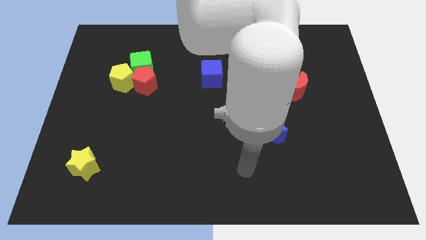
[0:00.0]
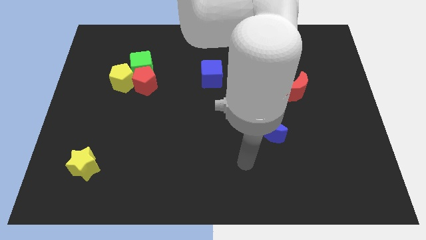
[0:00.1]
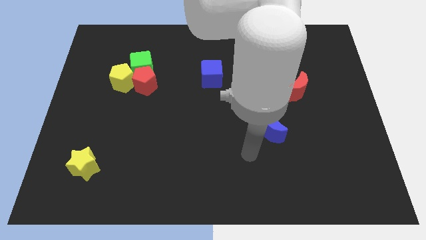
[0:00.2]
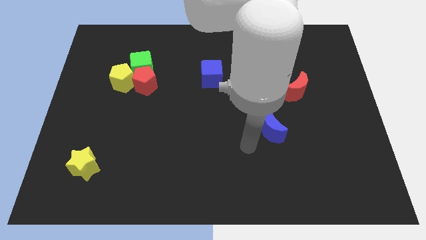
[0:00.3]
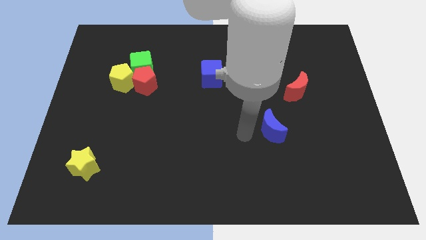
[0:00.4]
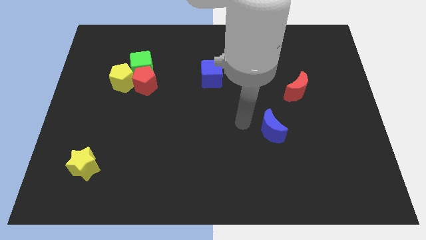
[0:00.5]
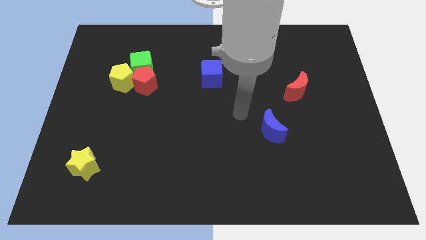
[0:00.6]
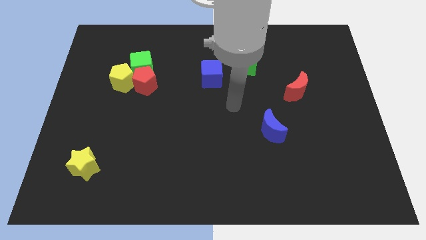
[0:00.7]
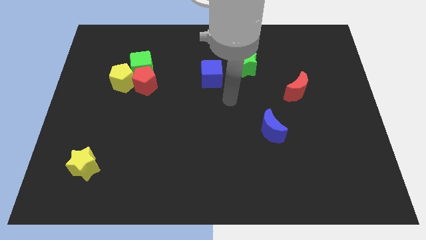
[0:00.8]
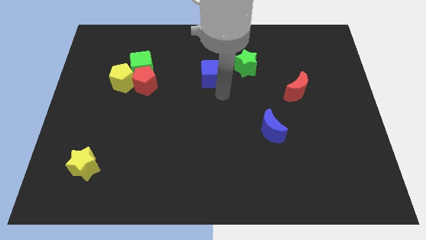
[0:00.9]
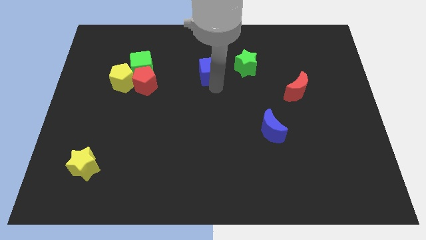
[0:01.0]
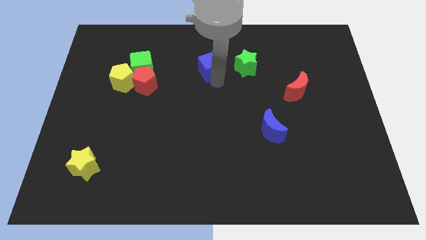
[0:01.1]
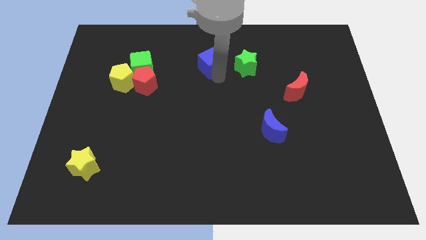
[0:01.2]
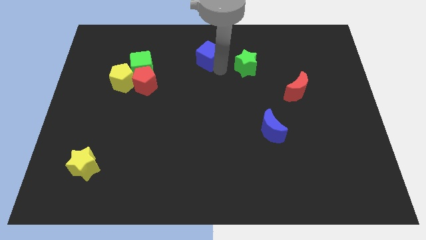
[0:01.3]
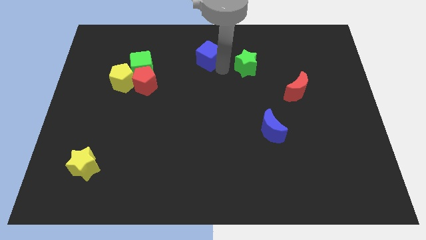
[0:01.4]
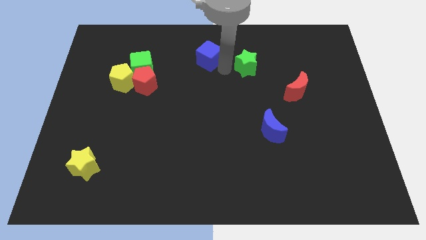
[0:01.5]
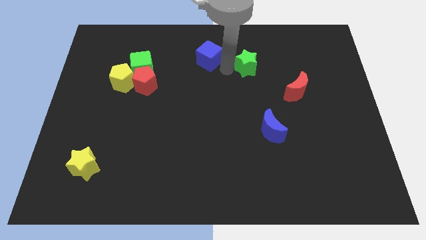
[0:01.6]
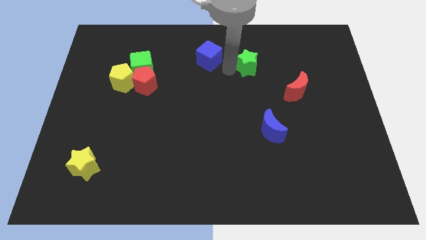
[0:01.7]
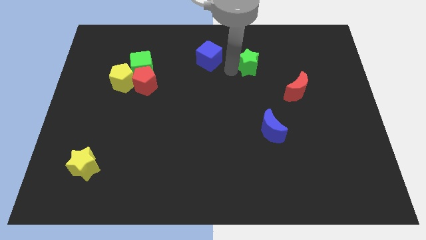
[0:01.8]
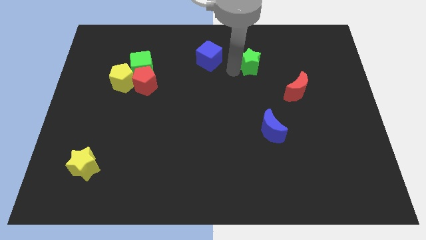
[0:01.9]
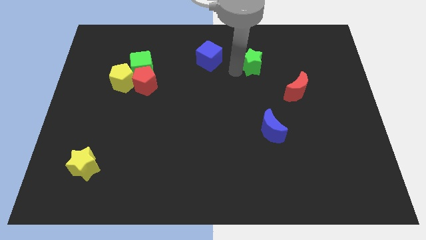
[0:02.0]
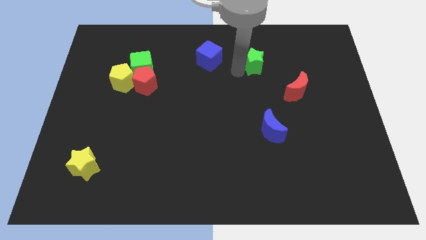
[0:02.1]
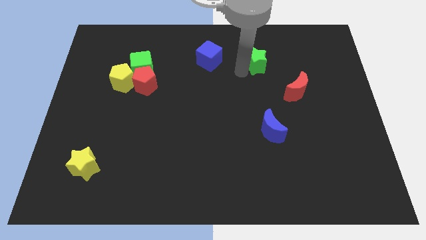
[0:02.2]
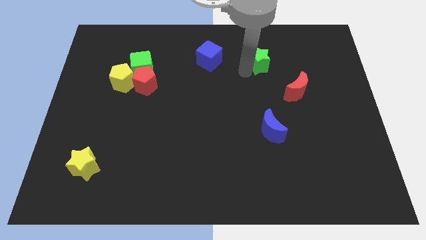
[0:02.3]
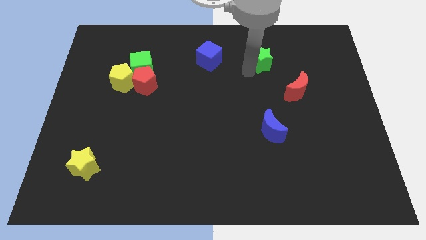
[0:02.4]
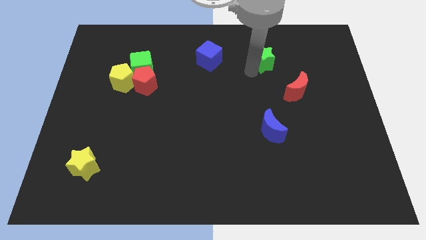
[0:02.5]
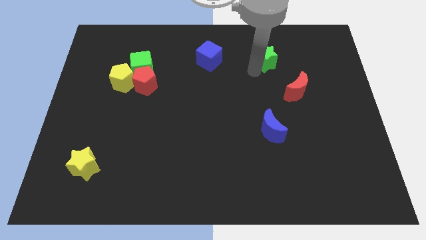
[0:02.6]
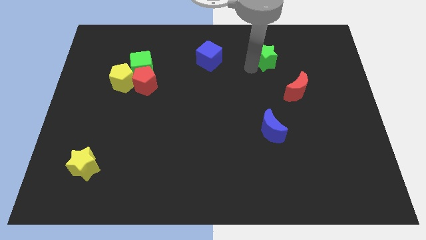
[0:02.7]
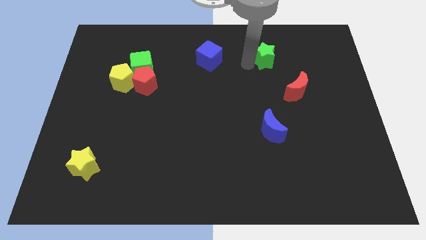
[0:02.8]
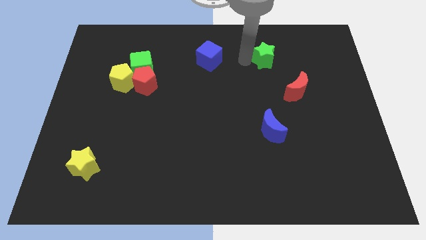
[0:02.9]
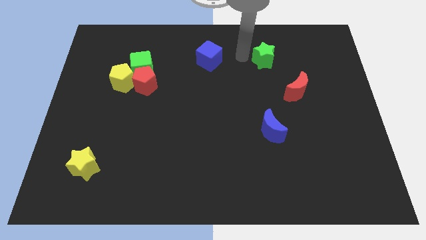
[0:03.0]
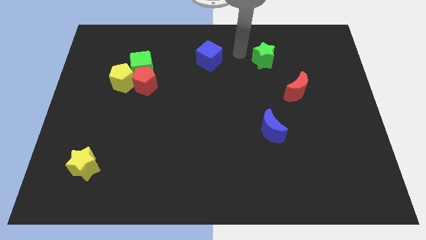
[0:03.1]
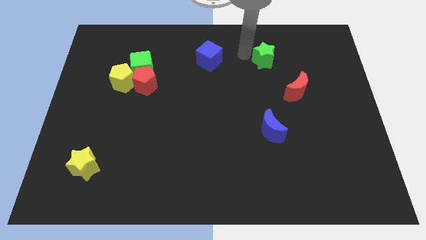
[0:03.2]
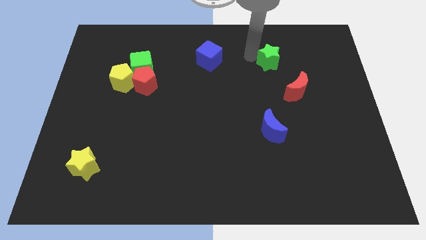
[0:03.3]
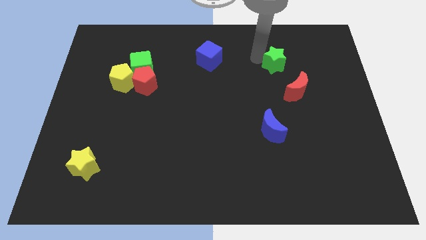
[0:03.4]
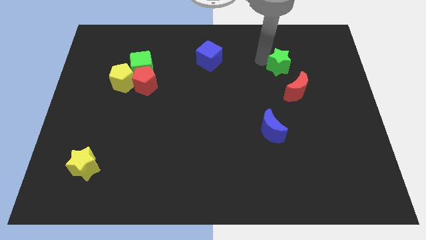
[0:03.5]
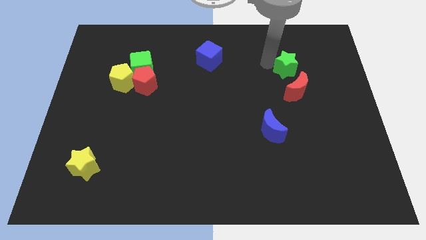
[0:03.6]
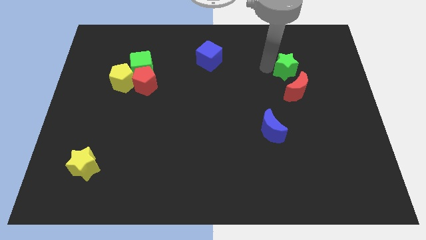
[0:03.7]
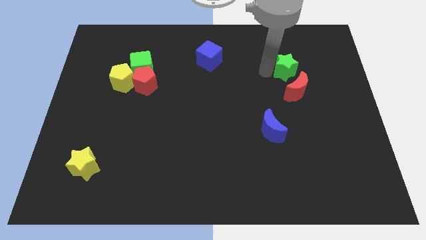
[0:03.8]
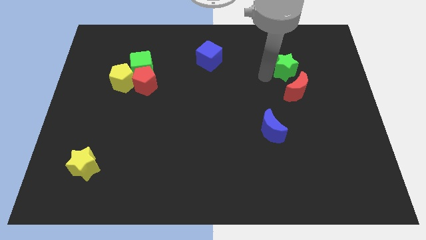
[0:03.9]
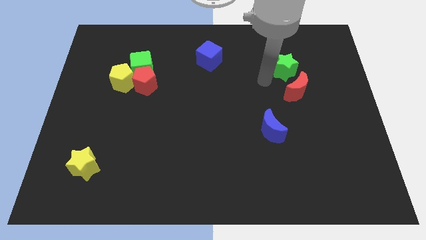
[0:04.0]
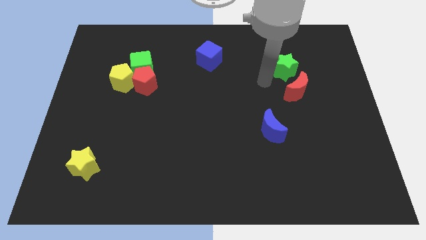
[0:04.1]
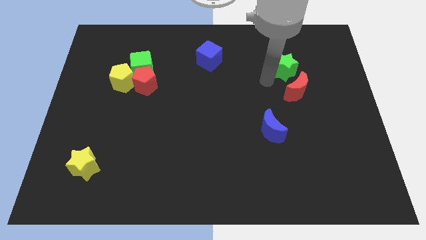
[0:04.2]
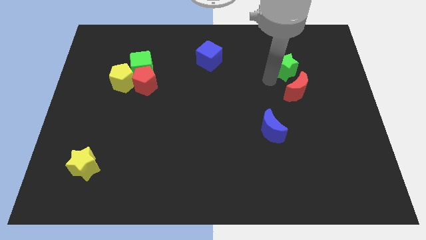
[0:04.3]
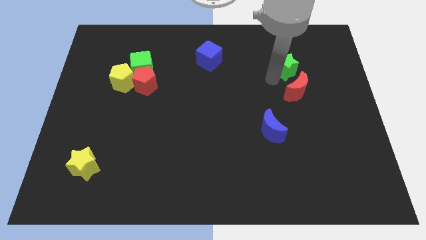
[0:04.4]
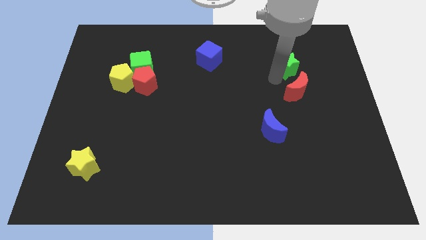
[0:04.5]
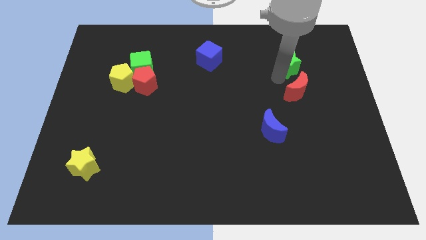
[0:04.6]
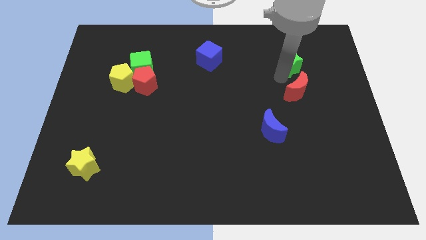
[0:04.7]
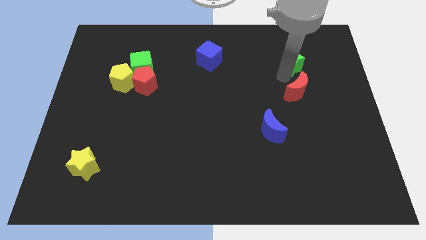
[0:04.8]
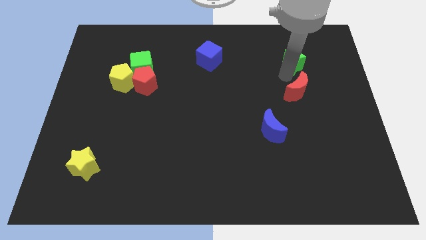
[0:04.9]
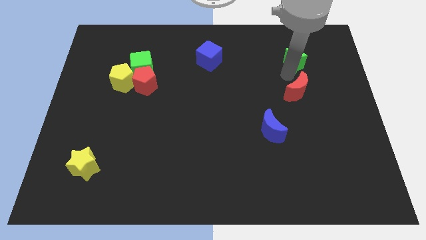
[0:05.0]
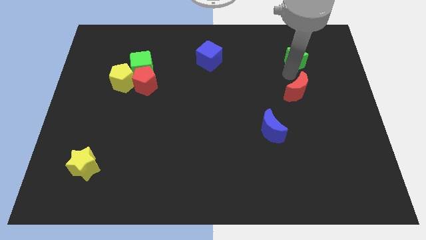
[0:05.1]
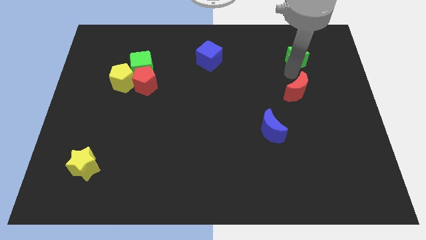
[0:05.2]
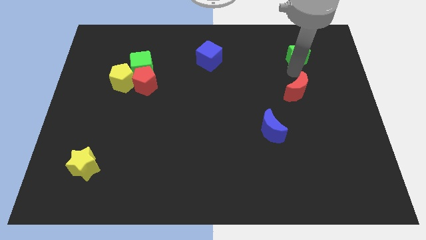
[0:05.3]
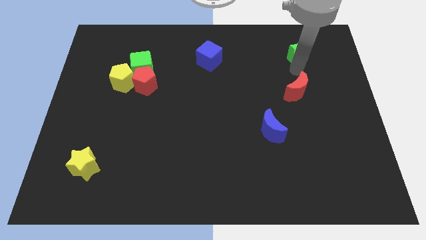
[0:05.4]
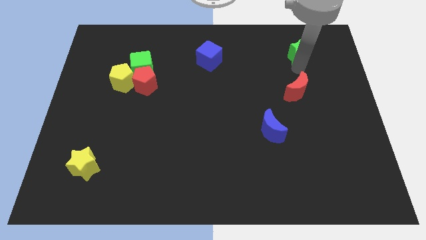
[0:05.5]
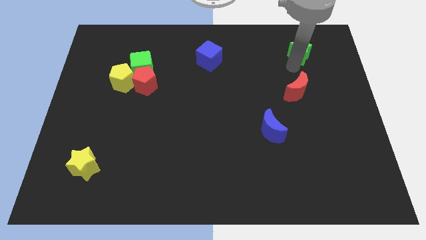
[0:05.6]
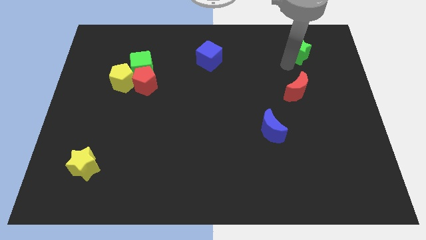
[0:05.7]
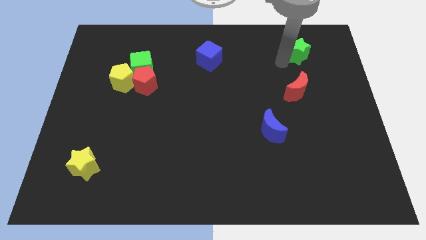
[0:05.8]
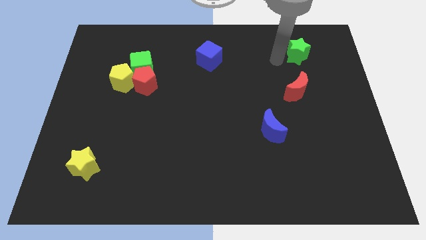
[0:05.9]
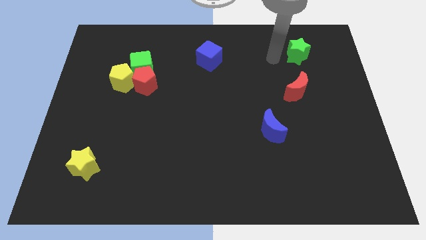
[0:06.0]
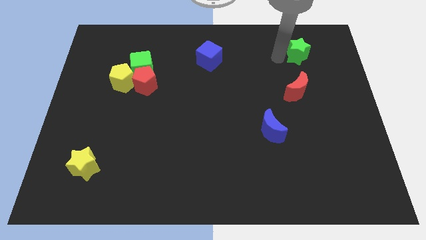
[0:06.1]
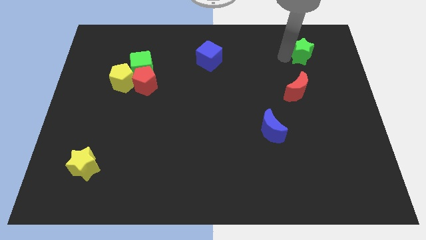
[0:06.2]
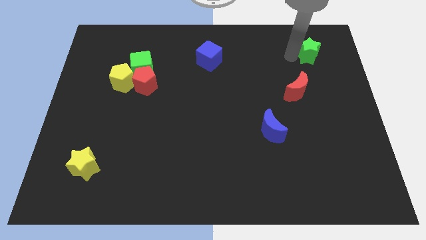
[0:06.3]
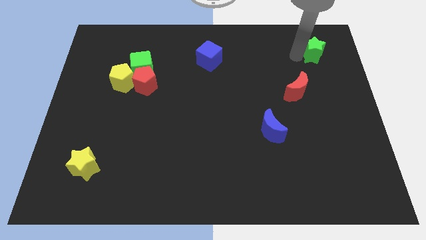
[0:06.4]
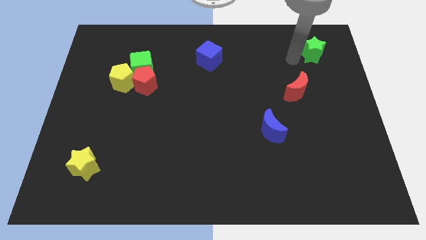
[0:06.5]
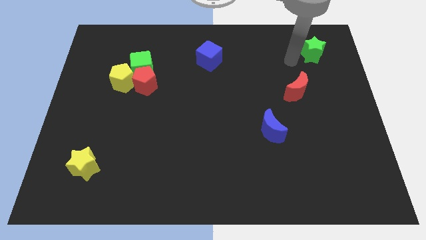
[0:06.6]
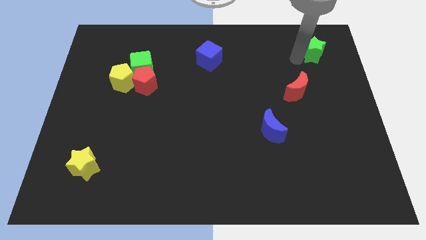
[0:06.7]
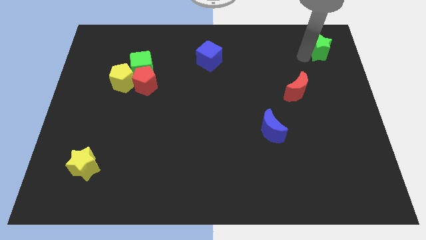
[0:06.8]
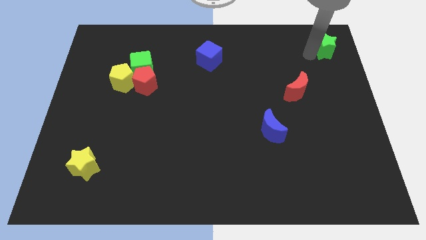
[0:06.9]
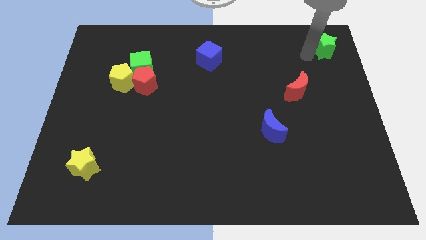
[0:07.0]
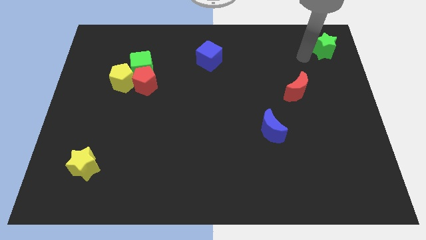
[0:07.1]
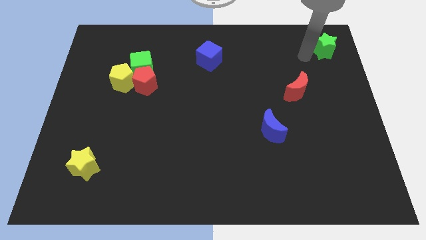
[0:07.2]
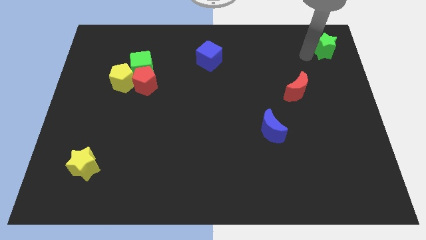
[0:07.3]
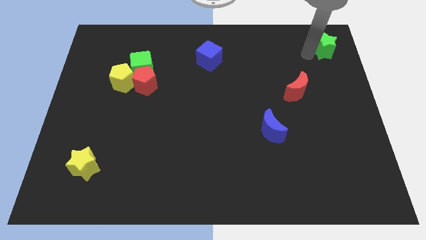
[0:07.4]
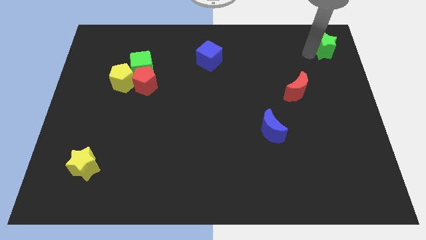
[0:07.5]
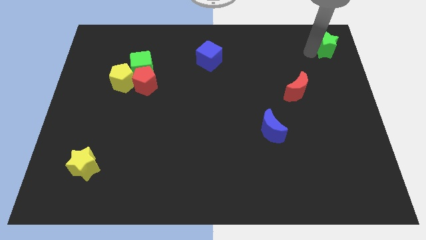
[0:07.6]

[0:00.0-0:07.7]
push the green star to the top right corner
